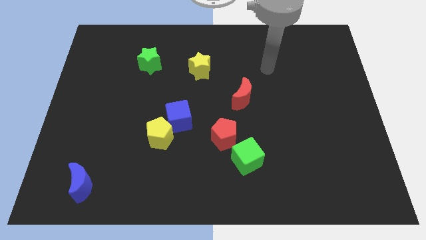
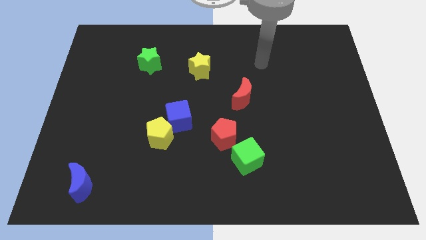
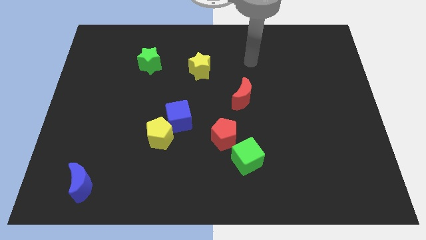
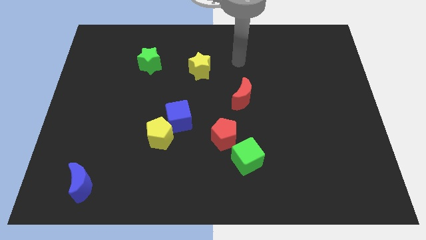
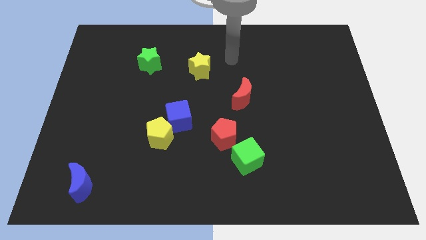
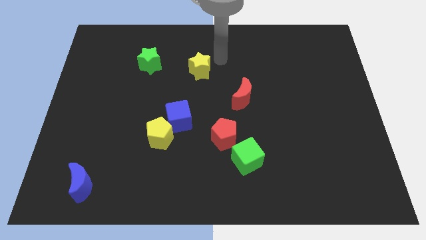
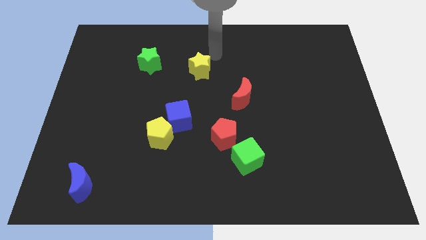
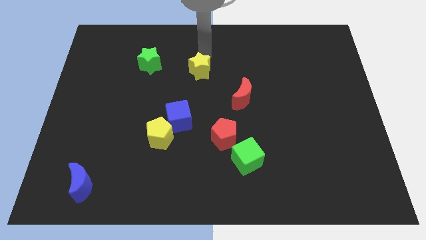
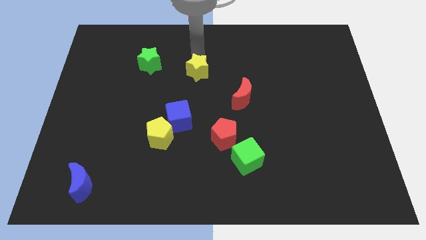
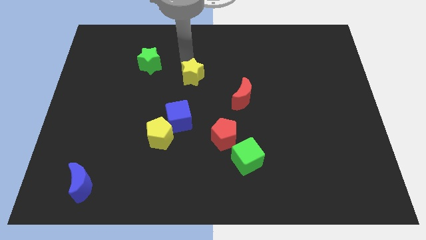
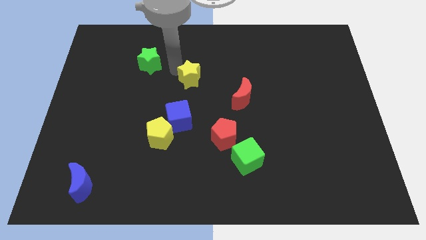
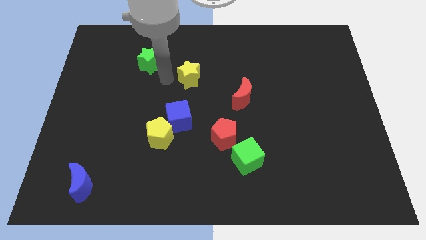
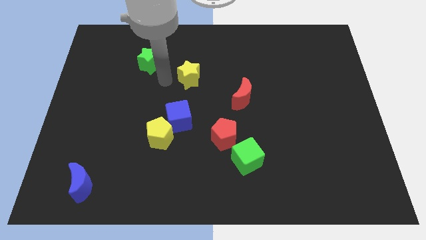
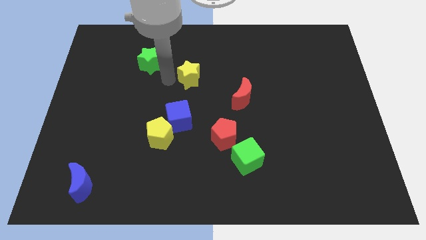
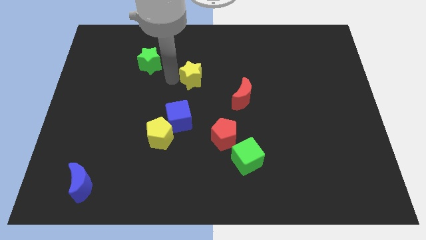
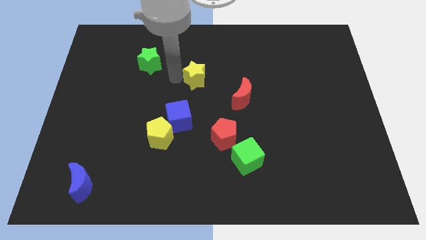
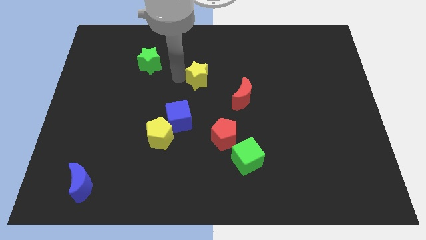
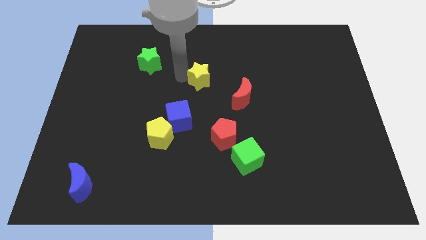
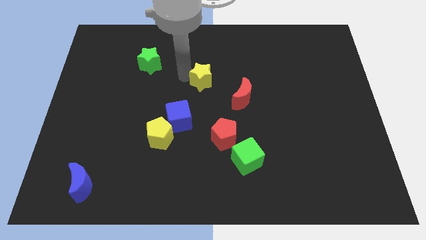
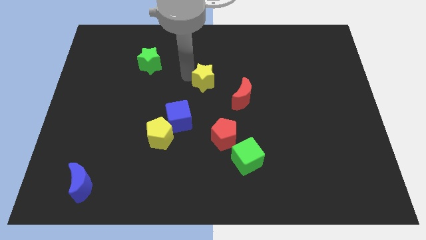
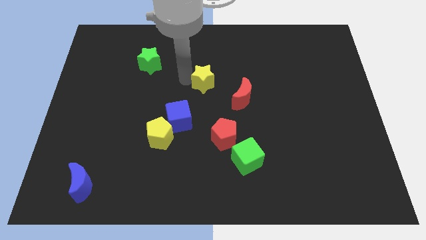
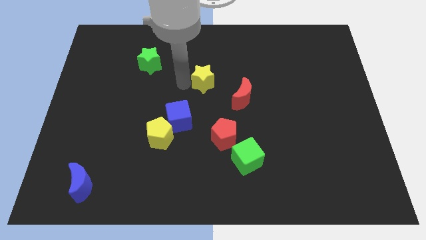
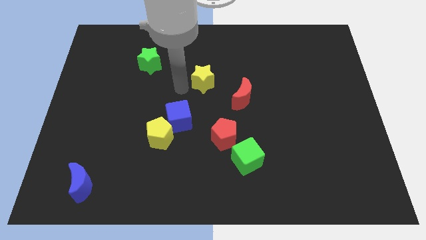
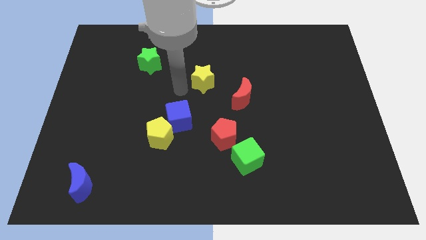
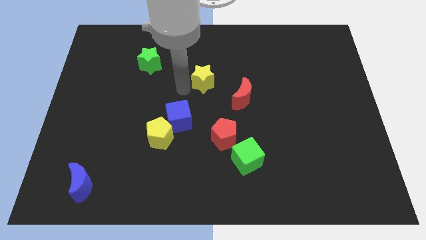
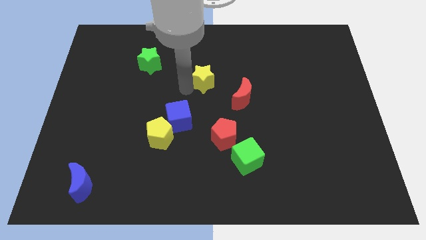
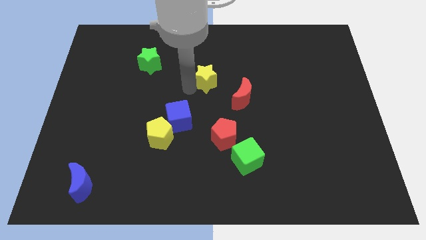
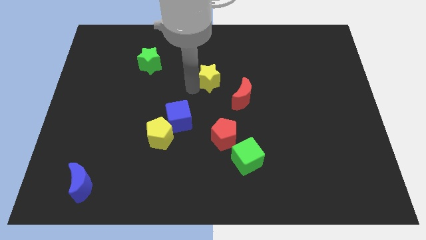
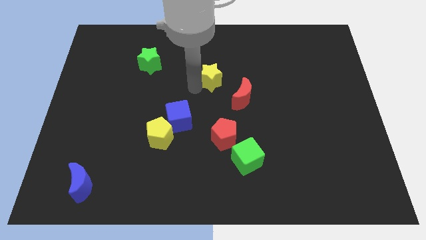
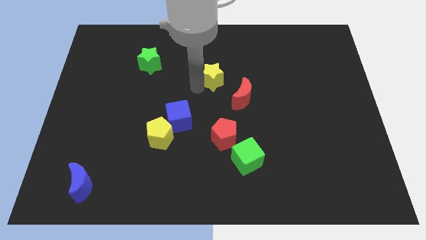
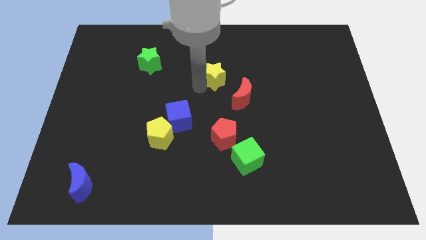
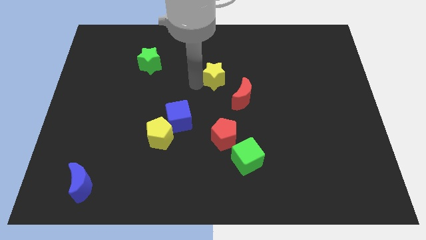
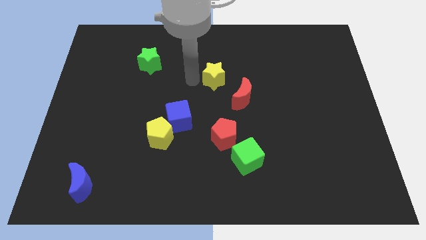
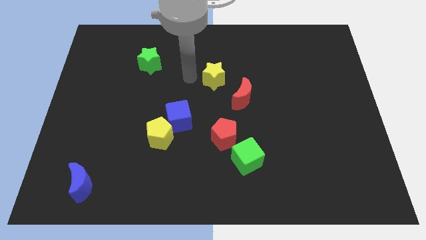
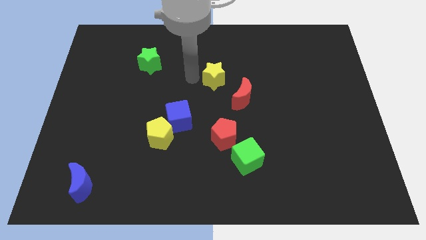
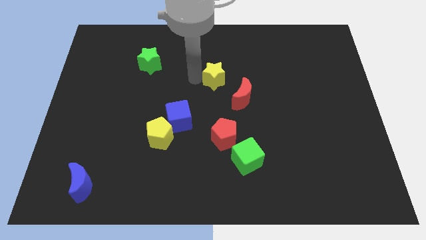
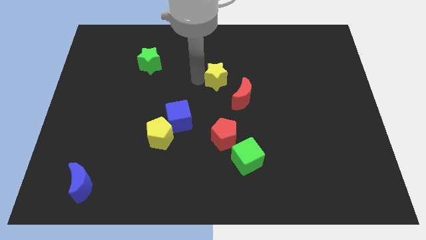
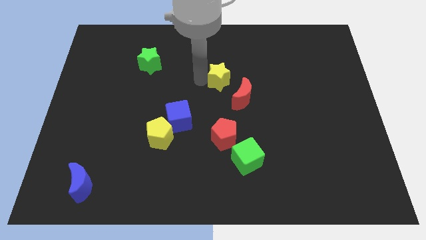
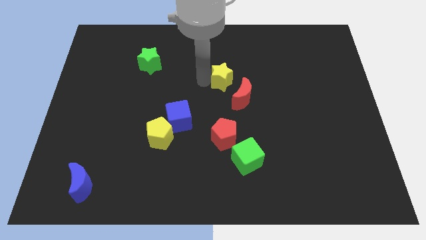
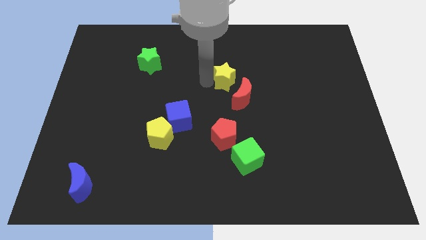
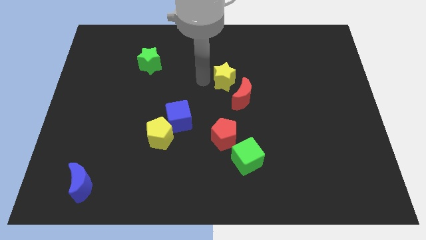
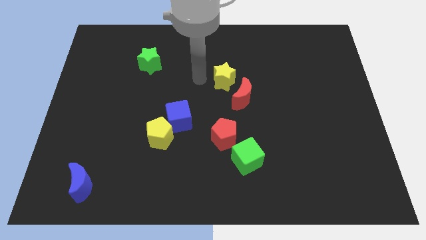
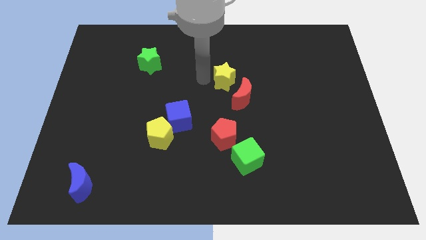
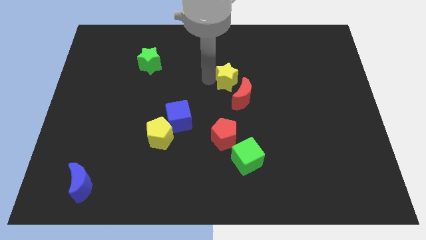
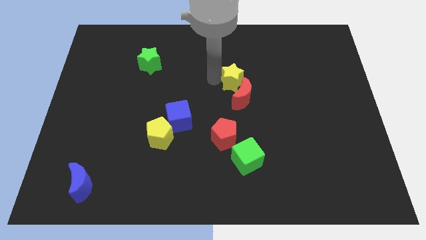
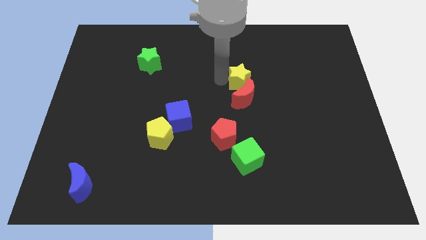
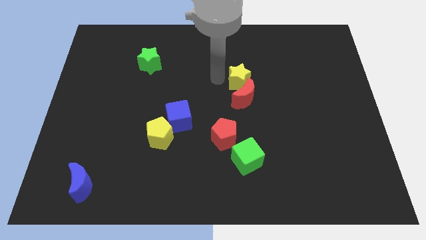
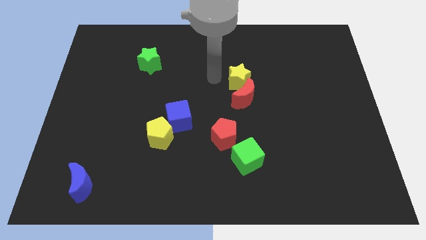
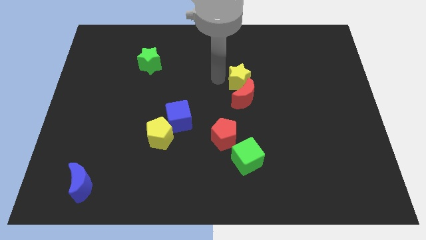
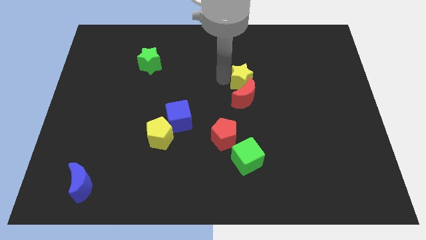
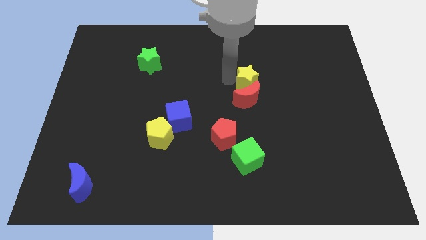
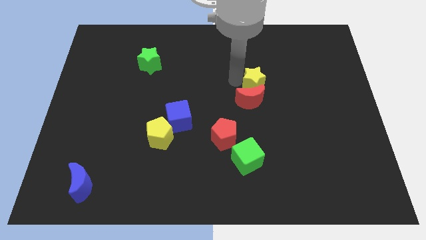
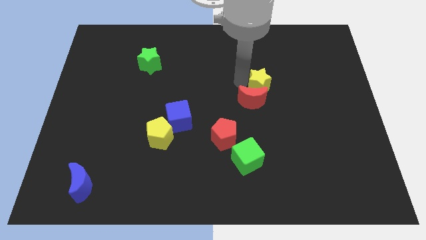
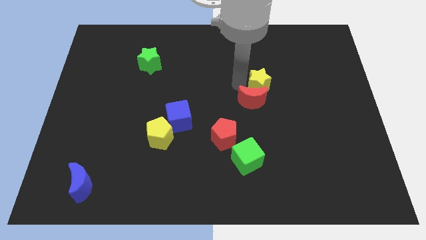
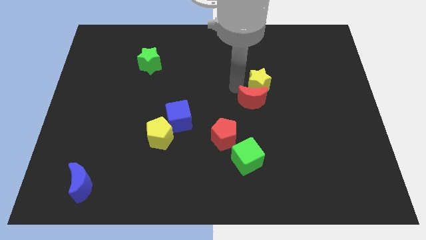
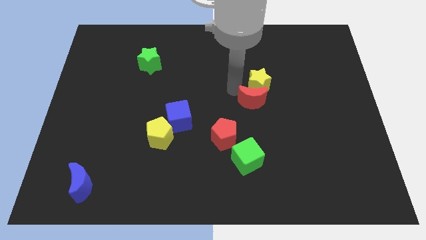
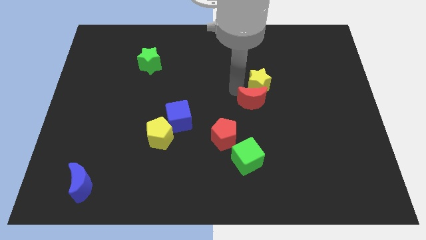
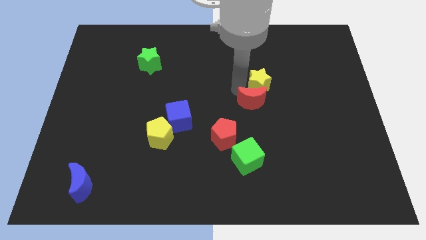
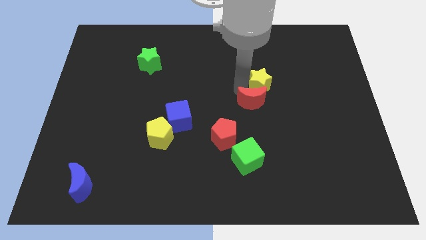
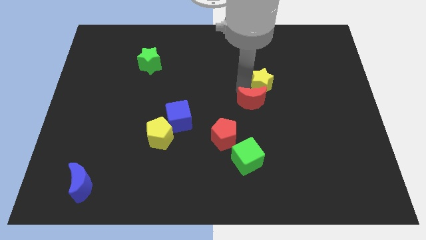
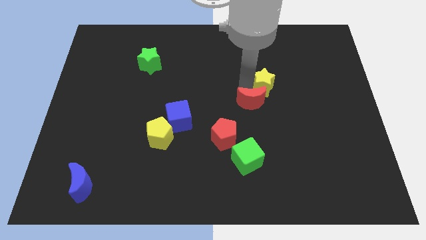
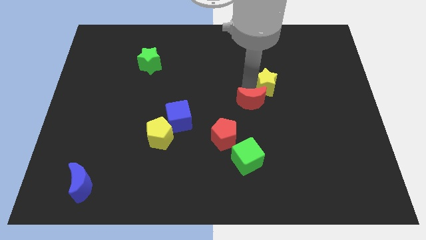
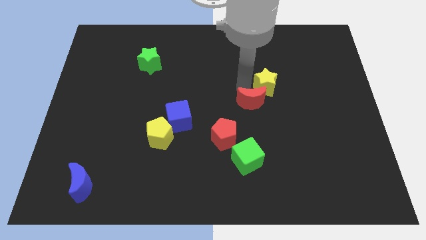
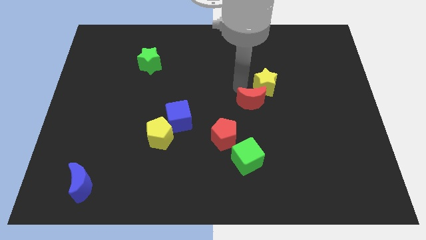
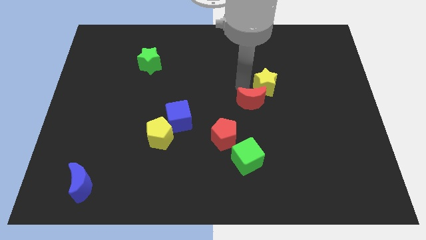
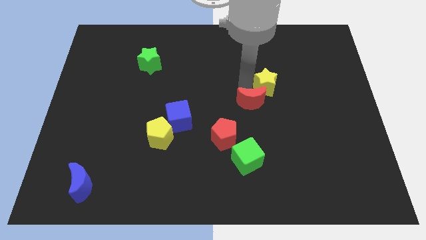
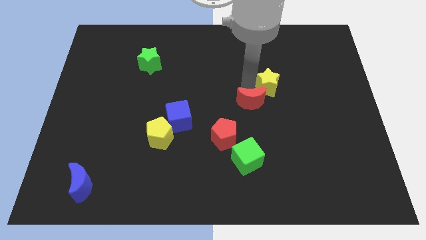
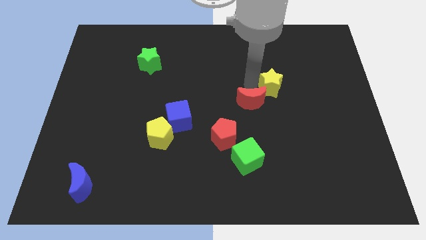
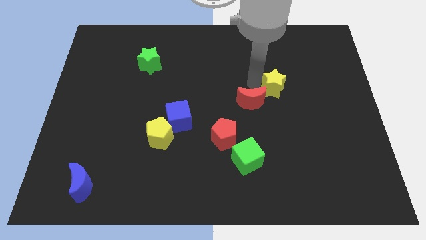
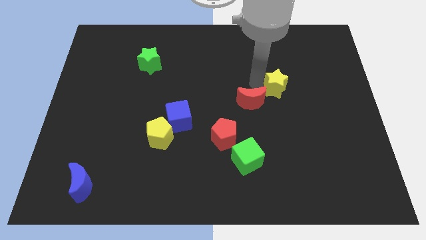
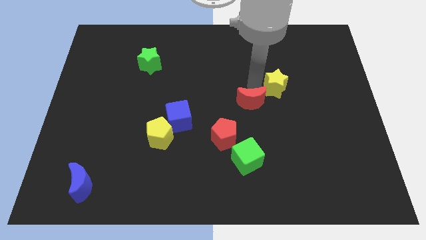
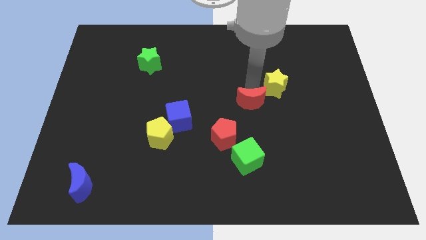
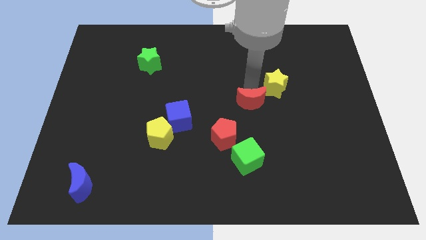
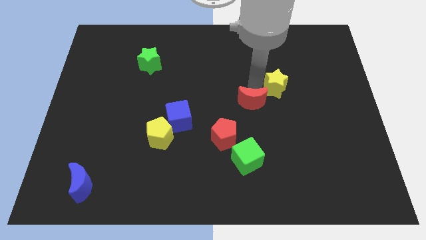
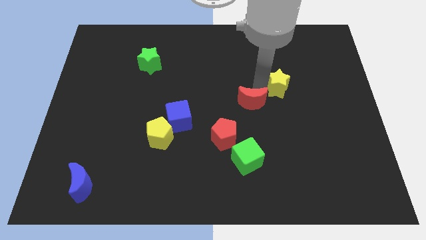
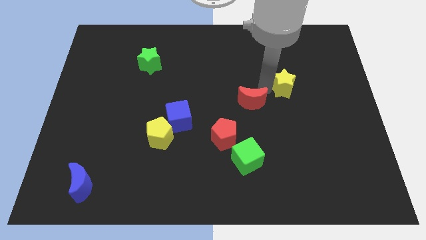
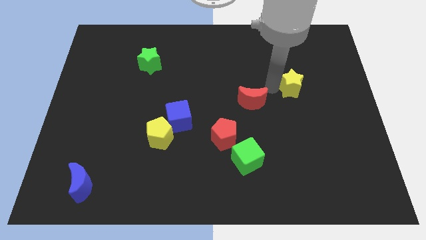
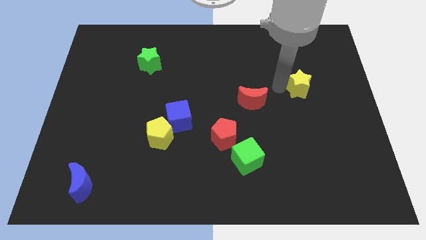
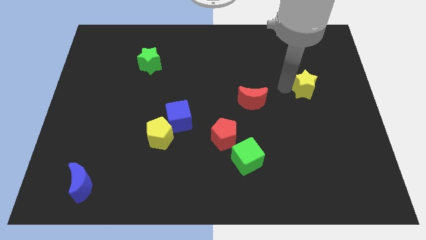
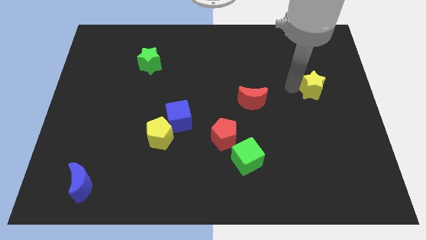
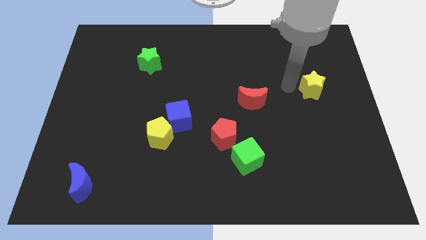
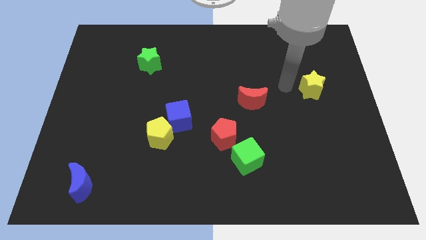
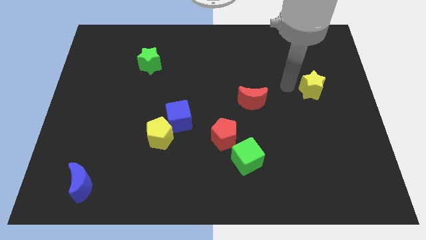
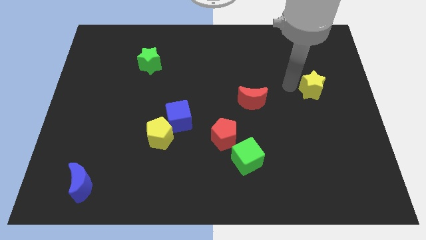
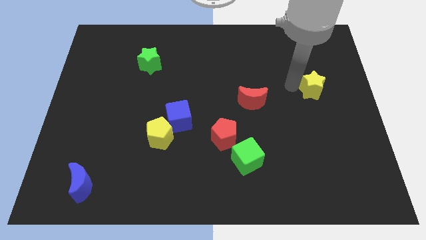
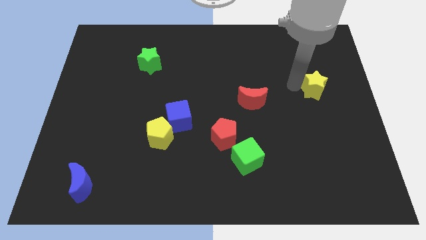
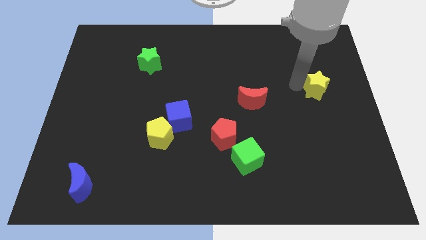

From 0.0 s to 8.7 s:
move the yellow star to the center right
